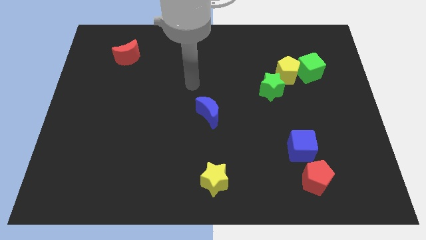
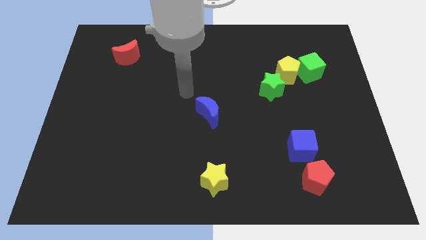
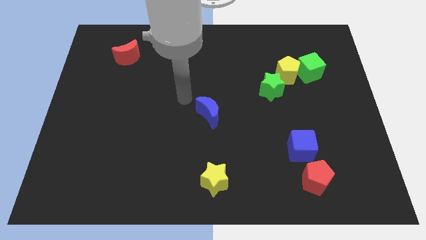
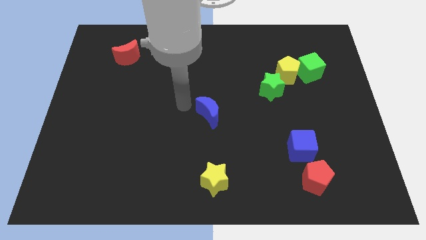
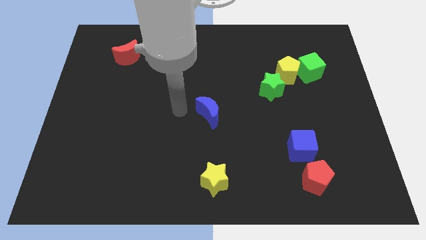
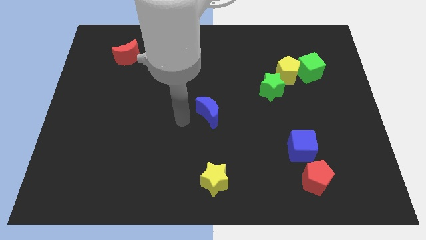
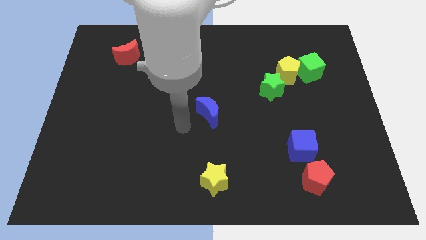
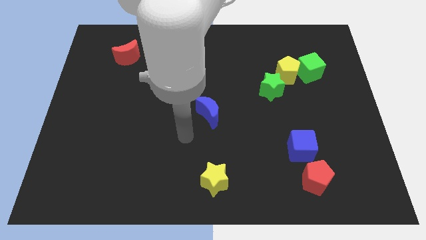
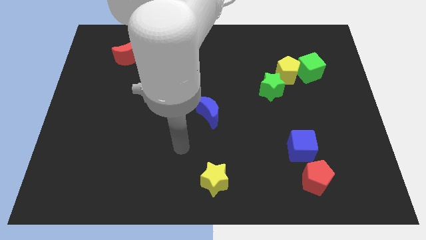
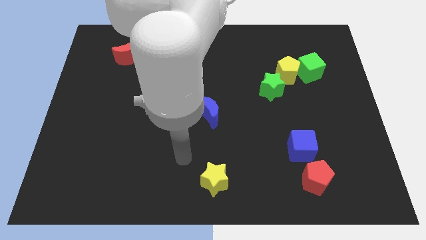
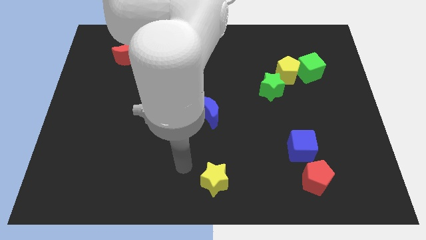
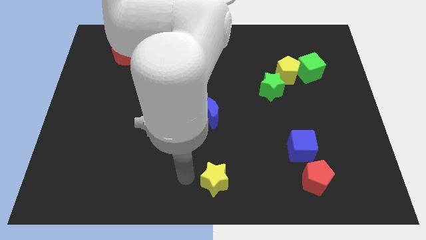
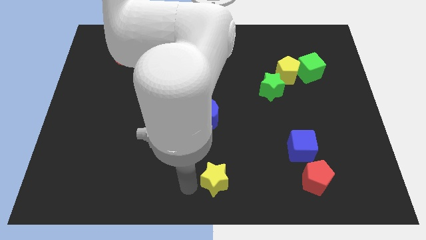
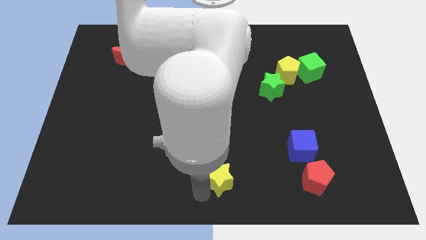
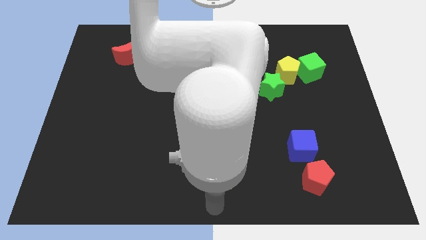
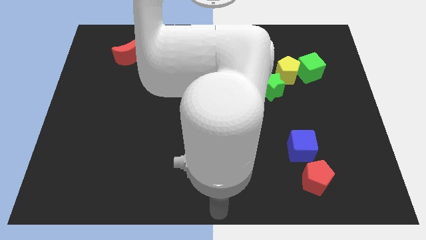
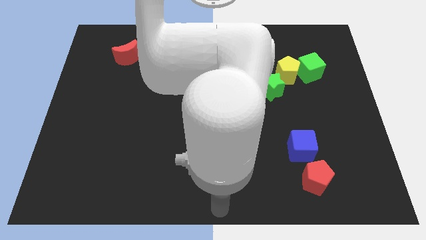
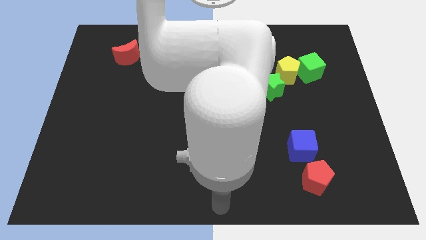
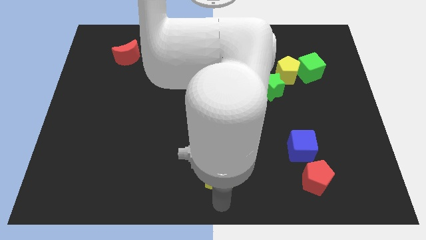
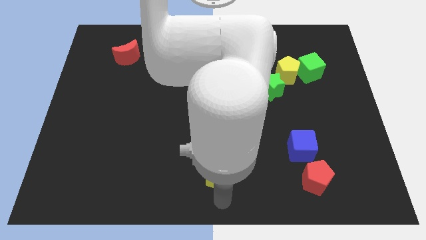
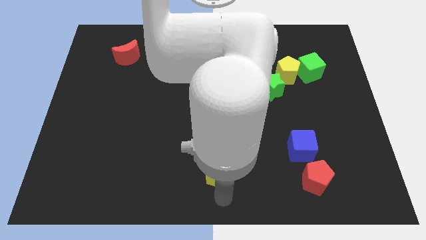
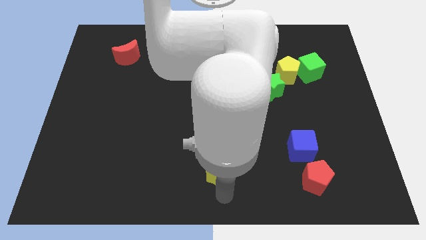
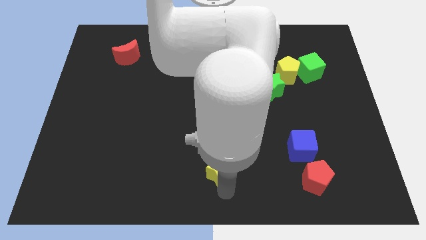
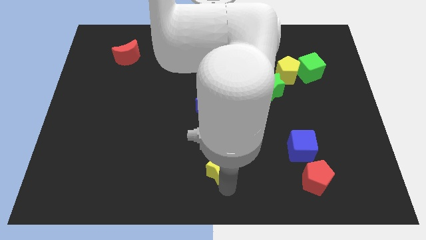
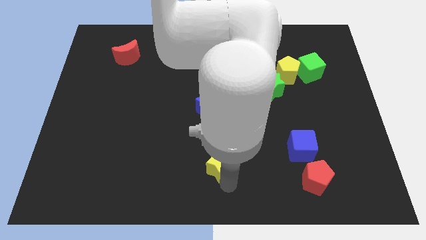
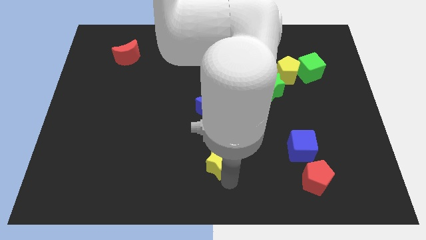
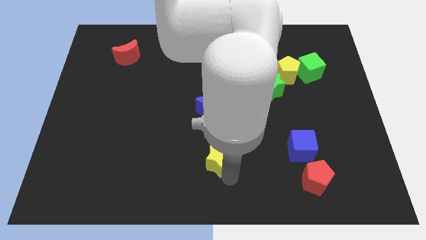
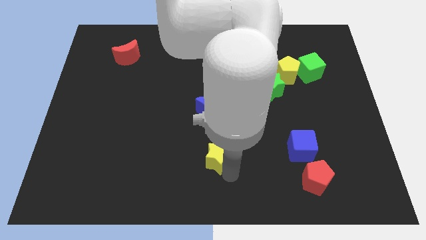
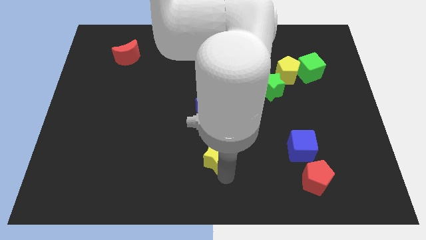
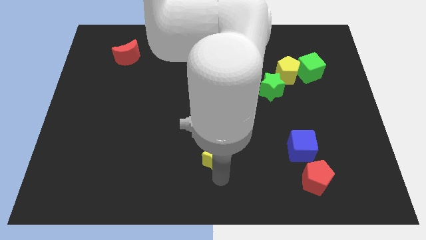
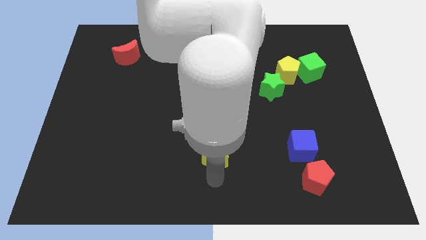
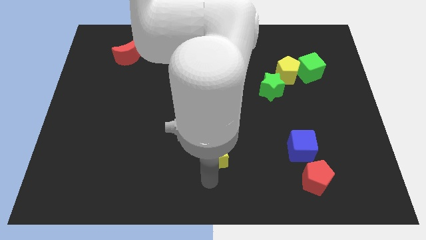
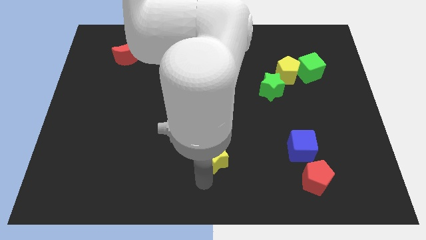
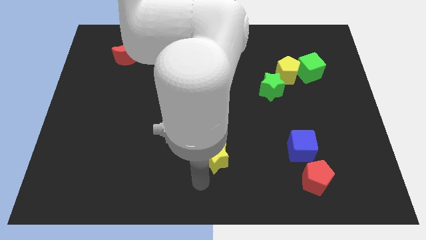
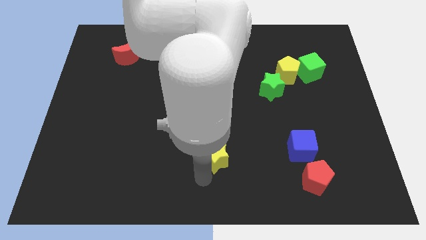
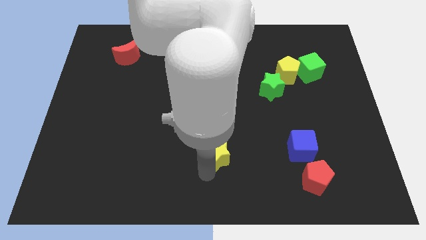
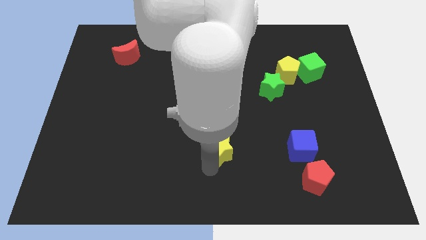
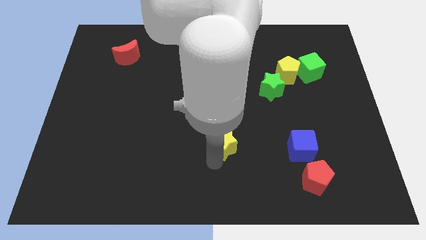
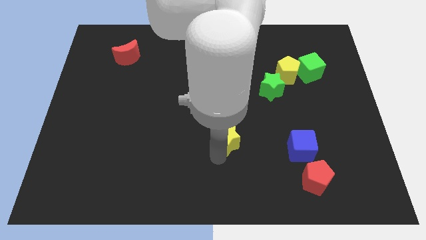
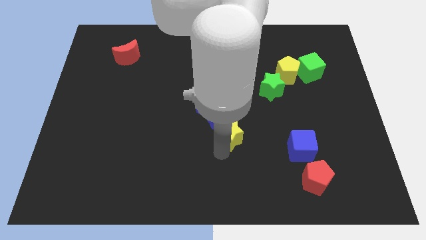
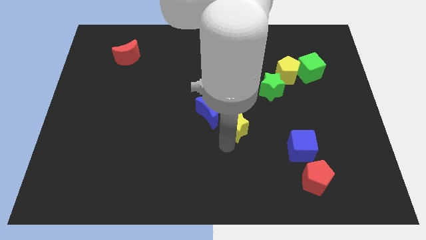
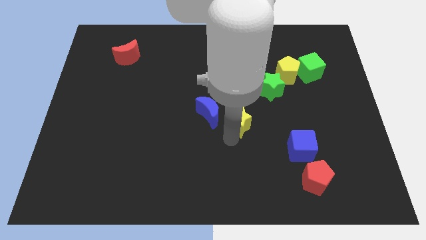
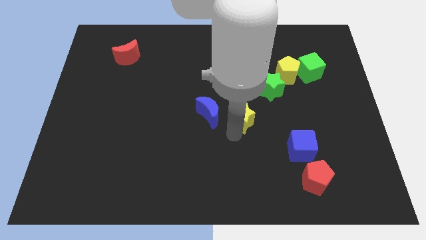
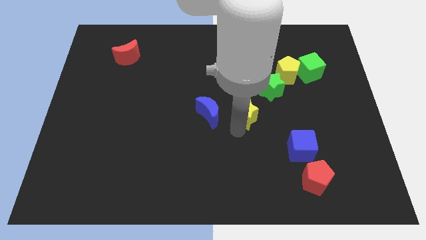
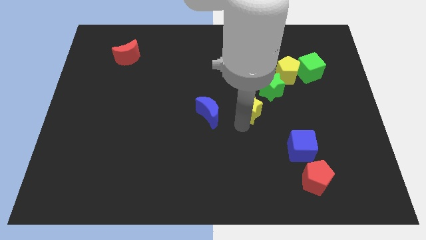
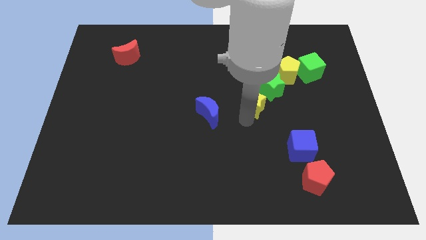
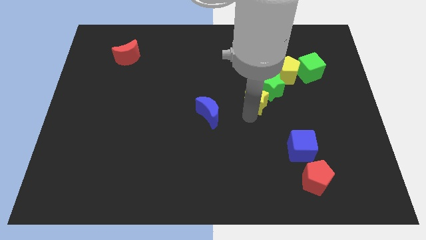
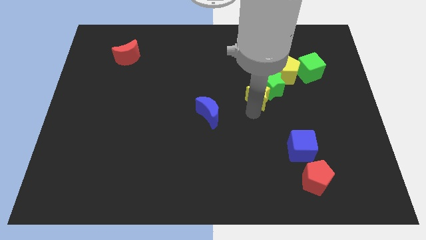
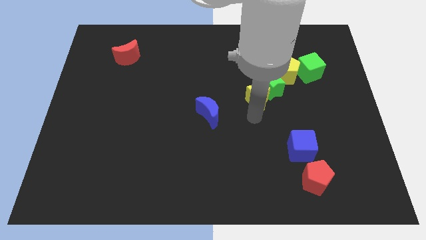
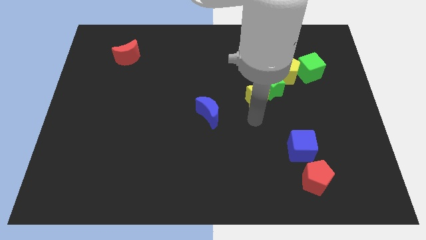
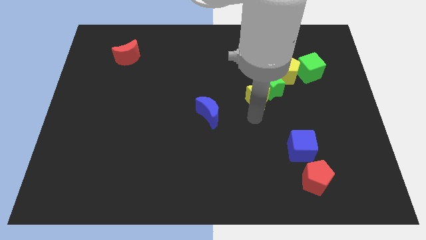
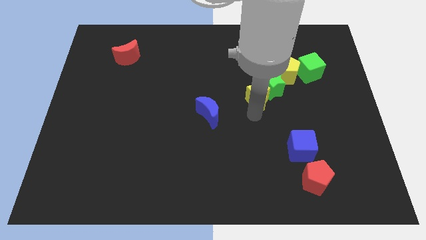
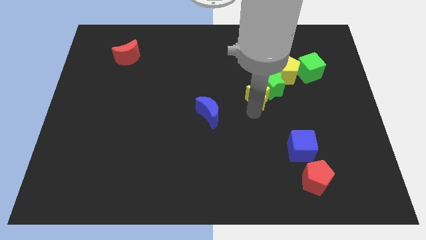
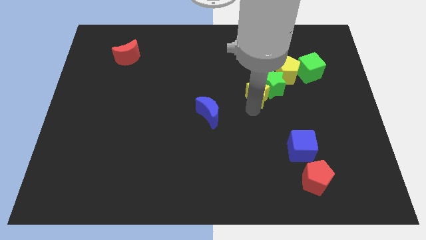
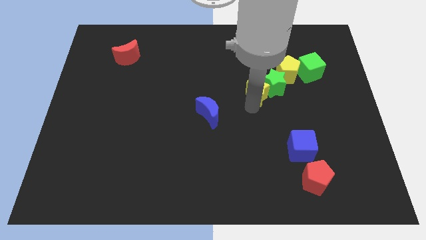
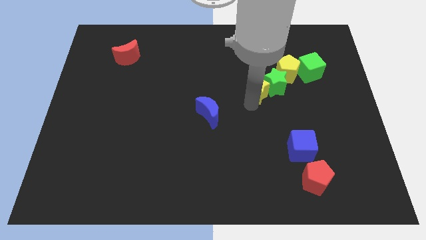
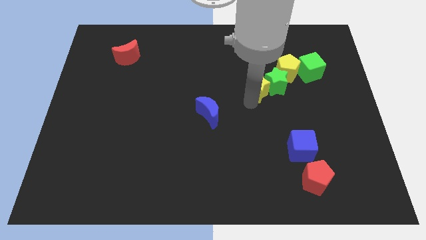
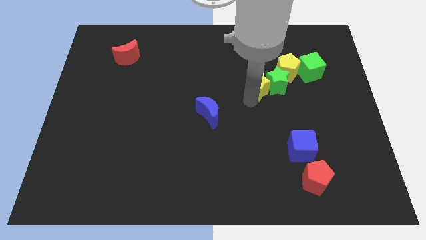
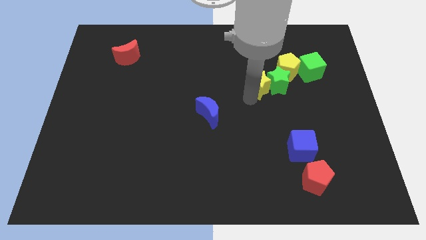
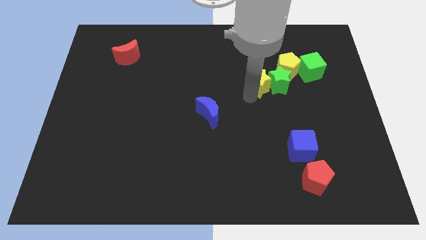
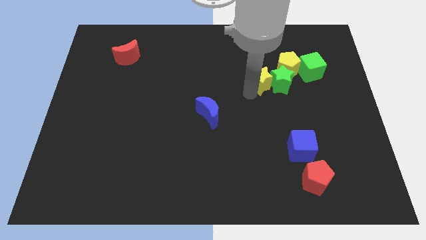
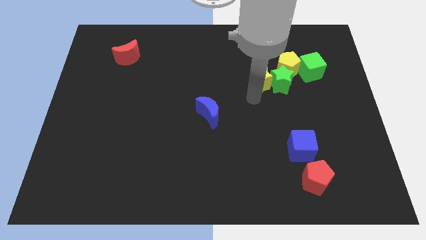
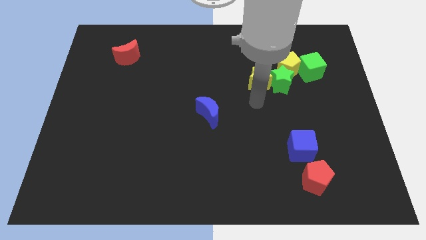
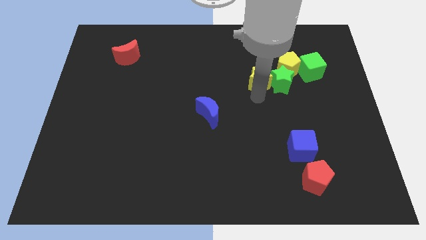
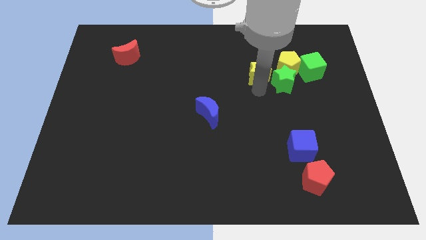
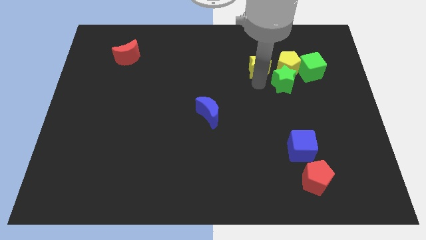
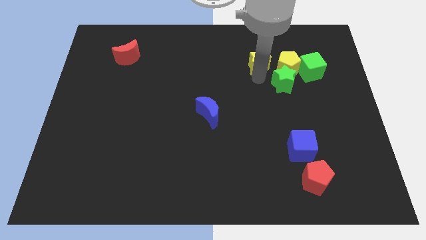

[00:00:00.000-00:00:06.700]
move the yellow star to the top left side of the yellow pentagon
